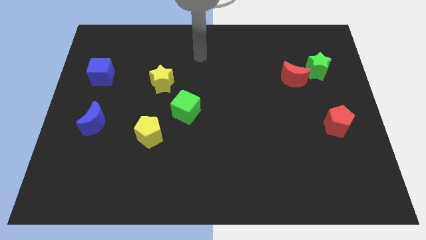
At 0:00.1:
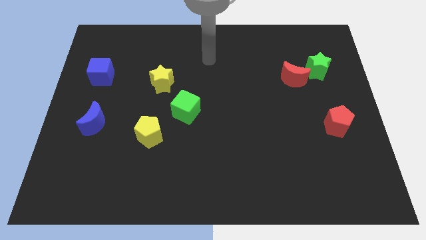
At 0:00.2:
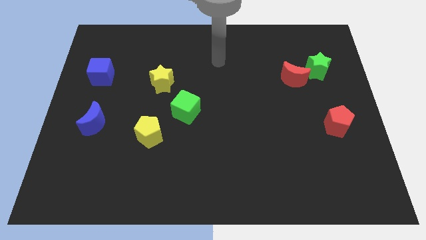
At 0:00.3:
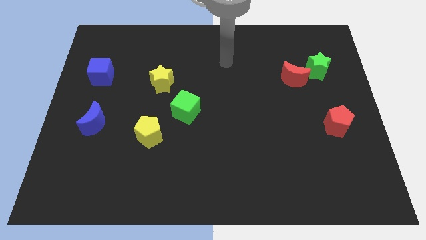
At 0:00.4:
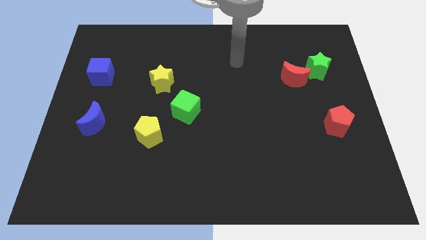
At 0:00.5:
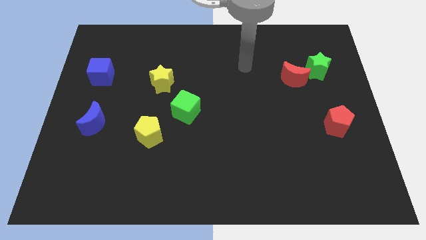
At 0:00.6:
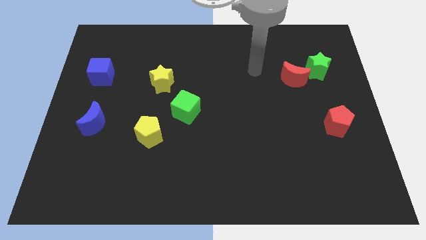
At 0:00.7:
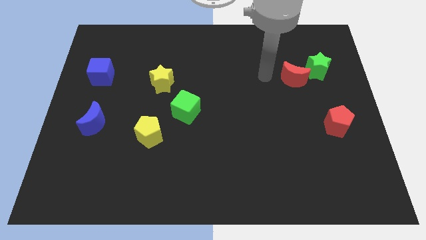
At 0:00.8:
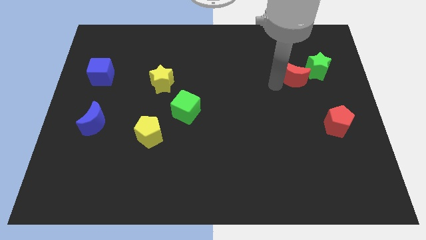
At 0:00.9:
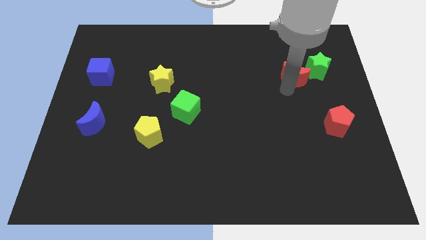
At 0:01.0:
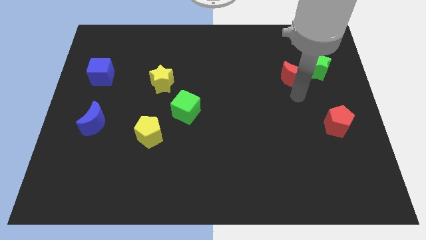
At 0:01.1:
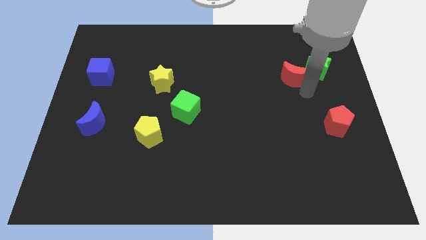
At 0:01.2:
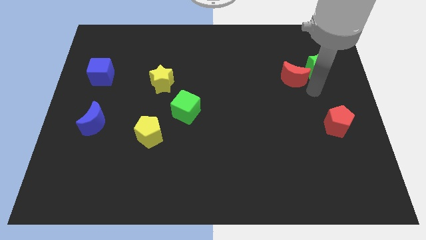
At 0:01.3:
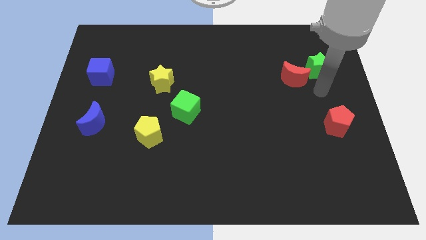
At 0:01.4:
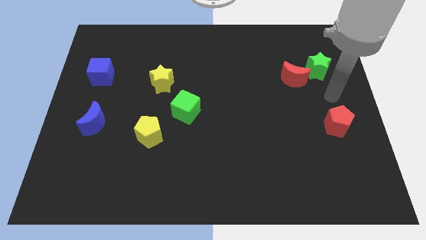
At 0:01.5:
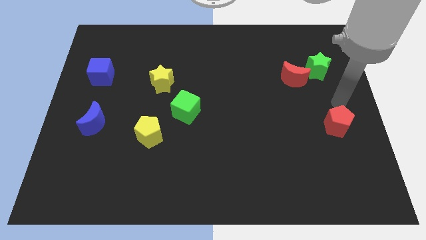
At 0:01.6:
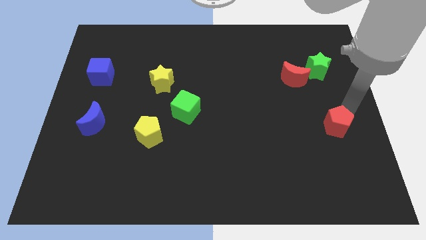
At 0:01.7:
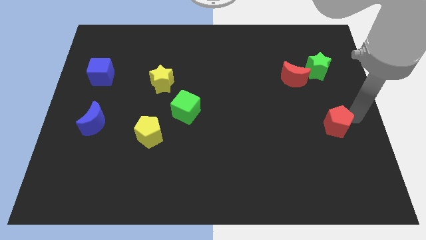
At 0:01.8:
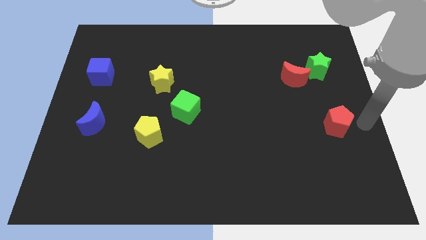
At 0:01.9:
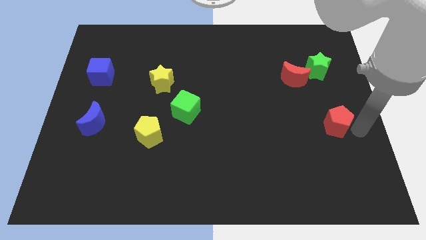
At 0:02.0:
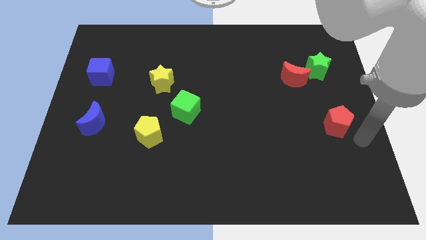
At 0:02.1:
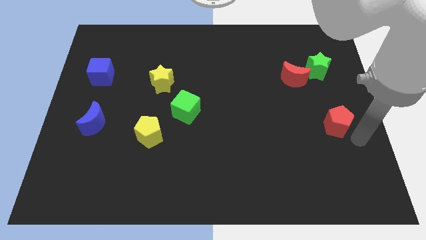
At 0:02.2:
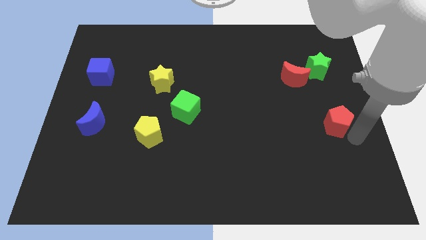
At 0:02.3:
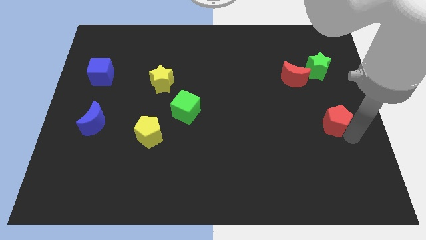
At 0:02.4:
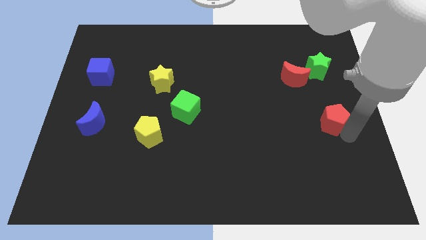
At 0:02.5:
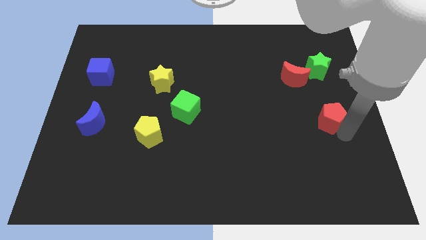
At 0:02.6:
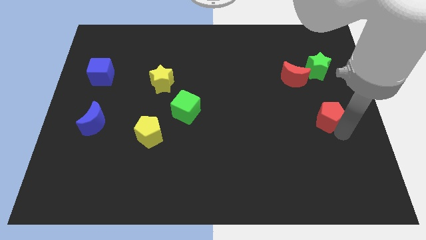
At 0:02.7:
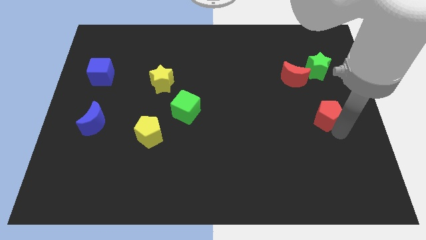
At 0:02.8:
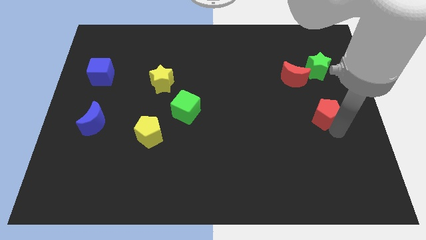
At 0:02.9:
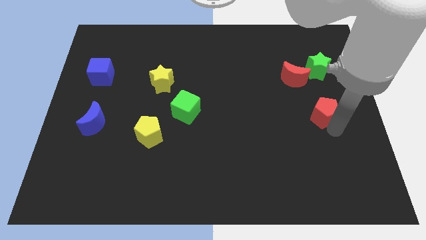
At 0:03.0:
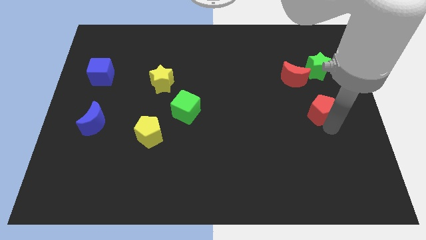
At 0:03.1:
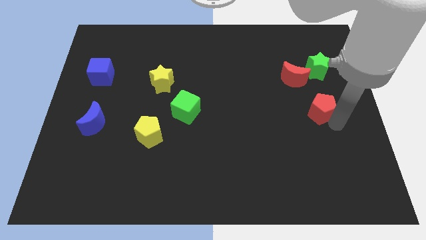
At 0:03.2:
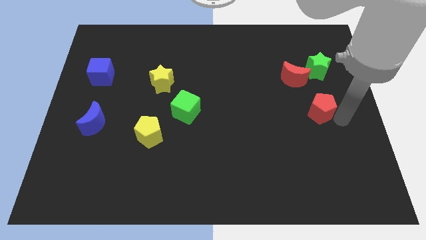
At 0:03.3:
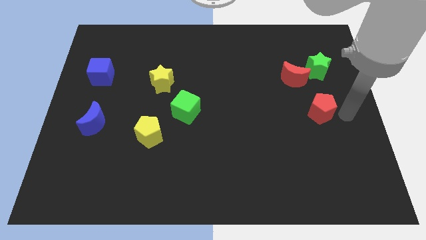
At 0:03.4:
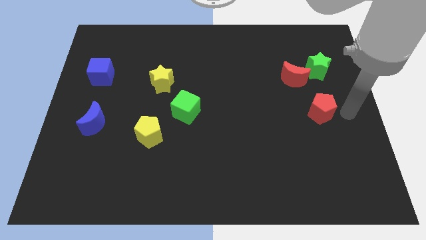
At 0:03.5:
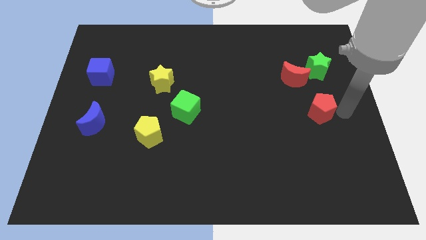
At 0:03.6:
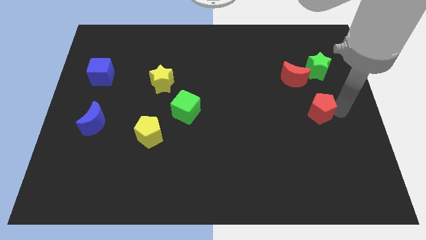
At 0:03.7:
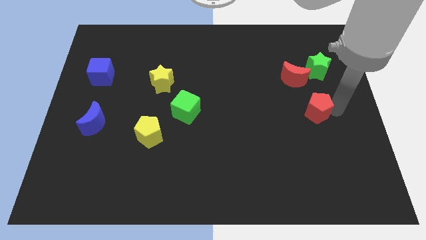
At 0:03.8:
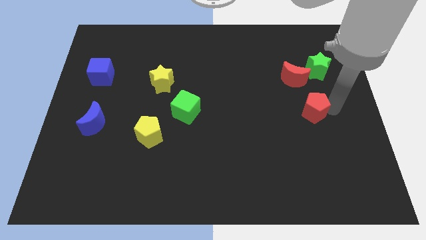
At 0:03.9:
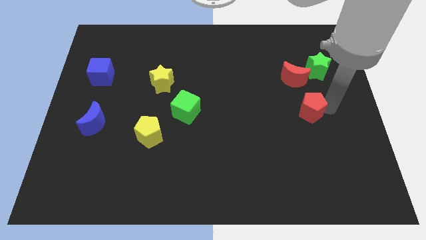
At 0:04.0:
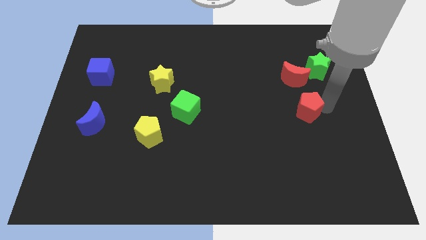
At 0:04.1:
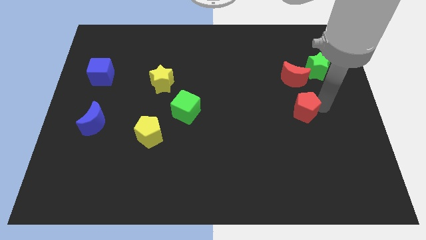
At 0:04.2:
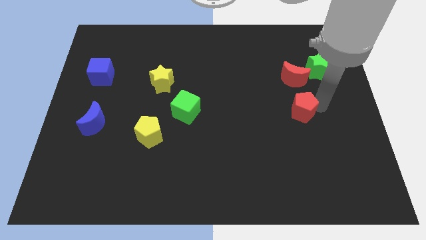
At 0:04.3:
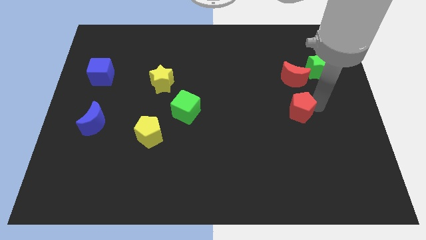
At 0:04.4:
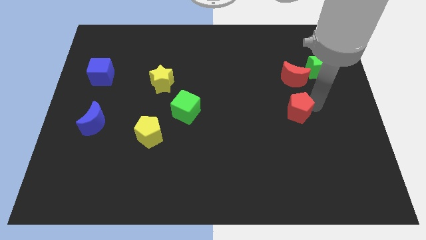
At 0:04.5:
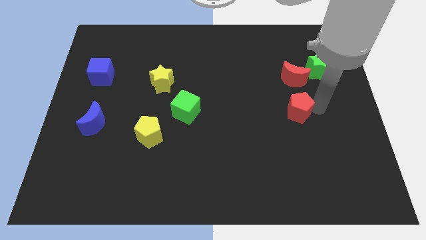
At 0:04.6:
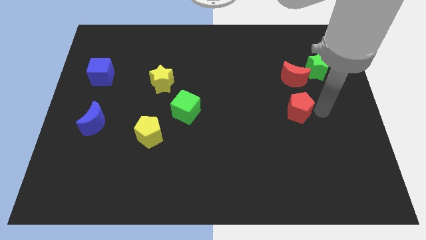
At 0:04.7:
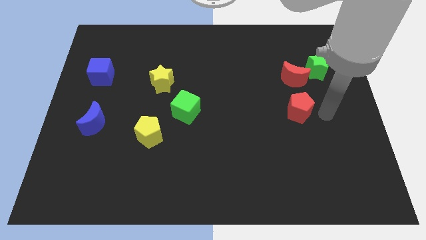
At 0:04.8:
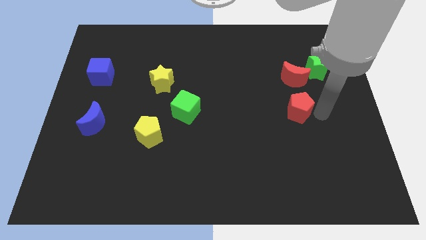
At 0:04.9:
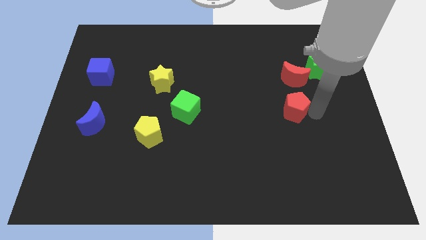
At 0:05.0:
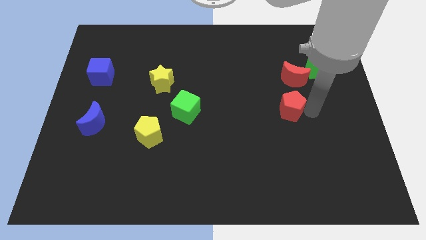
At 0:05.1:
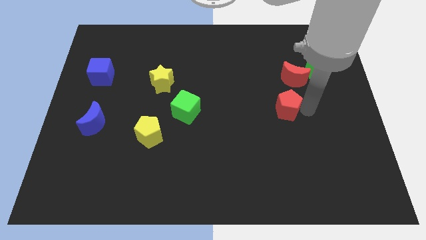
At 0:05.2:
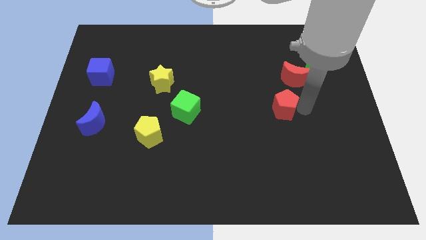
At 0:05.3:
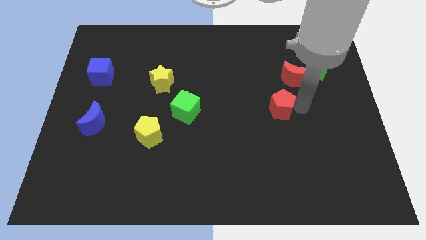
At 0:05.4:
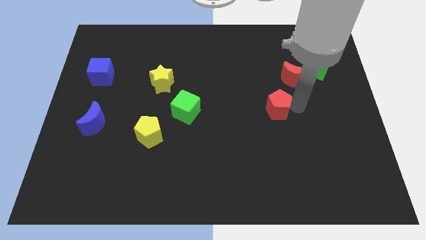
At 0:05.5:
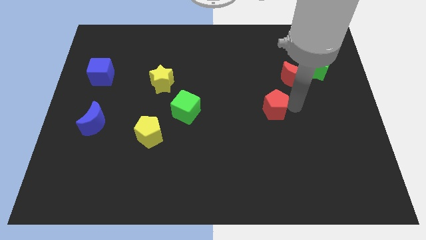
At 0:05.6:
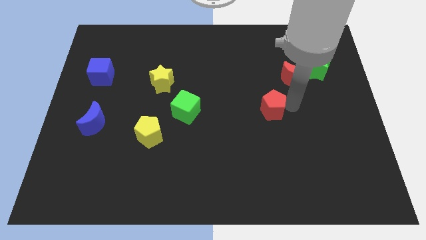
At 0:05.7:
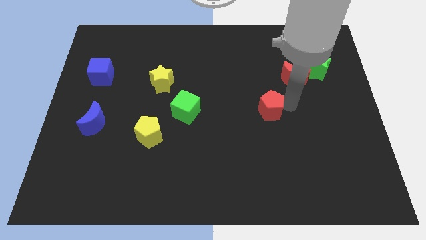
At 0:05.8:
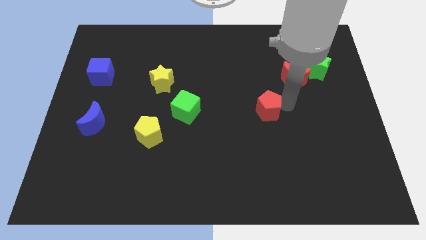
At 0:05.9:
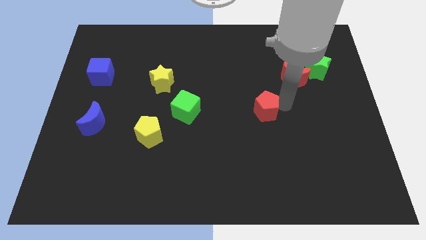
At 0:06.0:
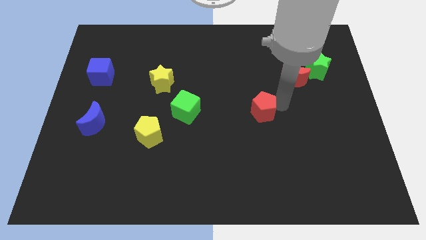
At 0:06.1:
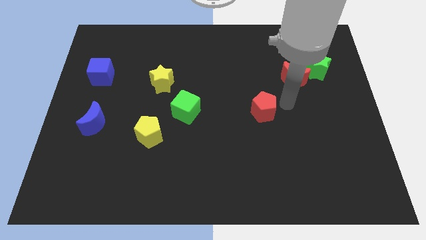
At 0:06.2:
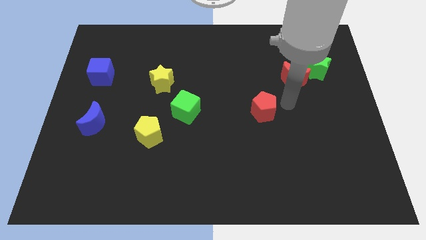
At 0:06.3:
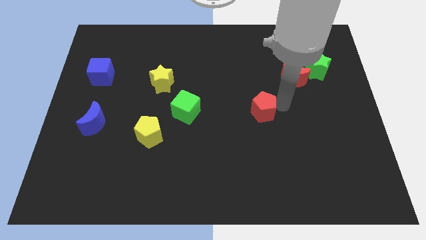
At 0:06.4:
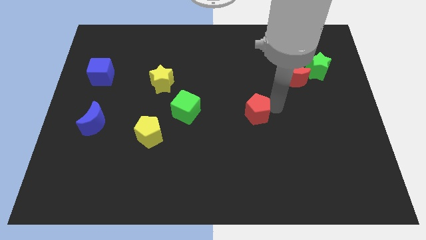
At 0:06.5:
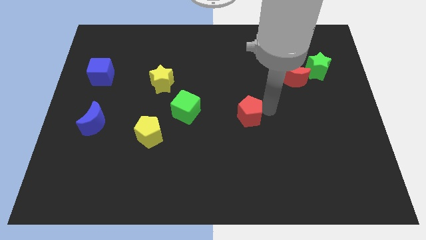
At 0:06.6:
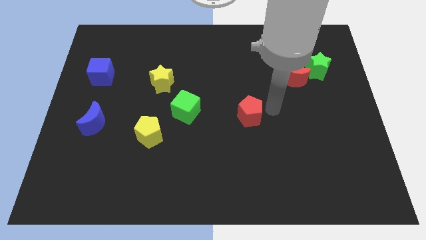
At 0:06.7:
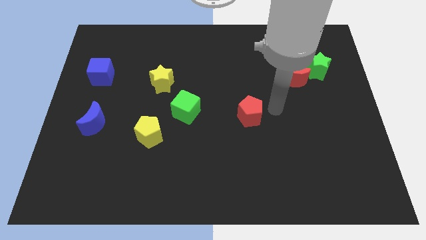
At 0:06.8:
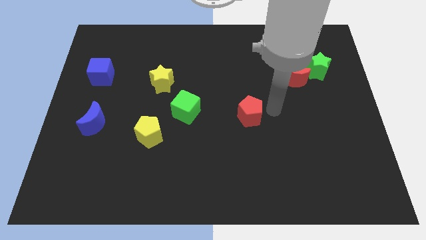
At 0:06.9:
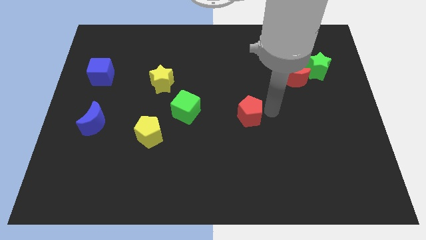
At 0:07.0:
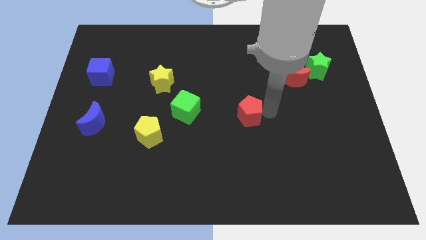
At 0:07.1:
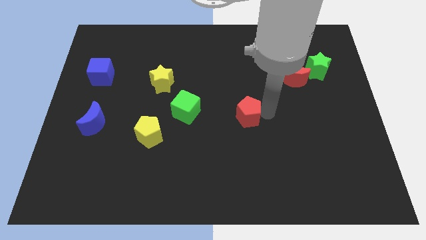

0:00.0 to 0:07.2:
slide the red pentagon left

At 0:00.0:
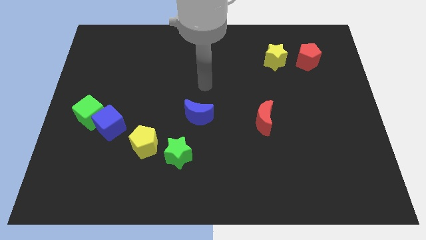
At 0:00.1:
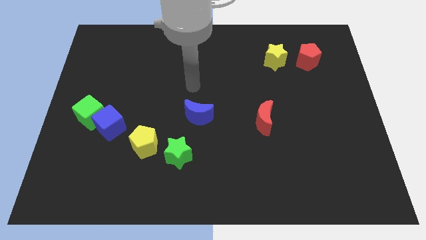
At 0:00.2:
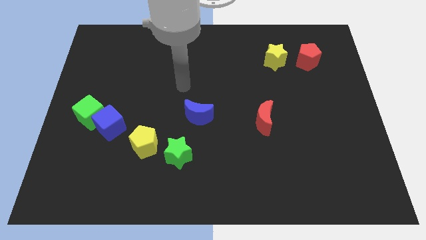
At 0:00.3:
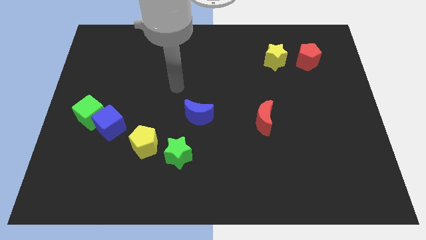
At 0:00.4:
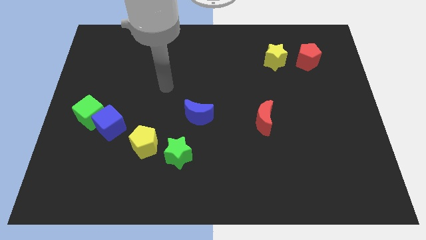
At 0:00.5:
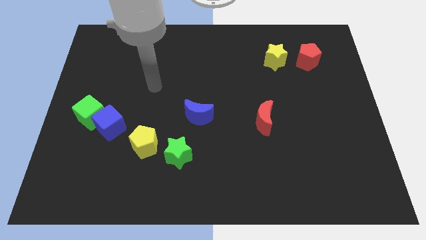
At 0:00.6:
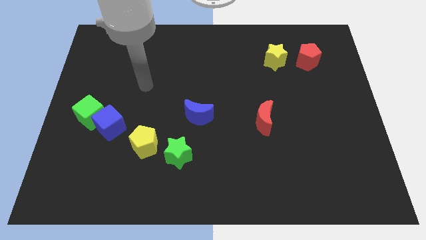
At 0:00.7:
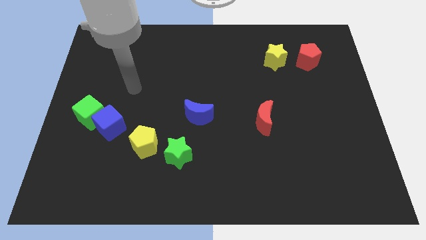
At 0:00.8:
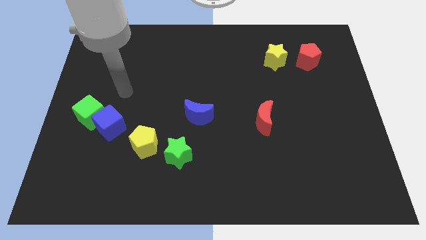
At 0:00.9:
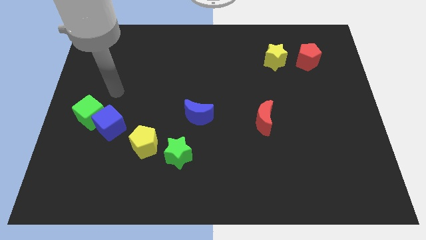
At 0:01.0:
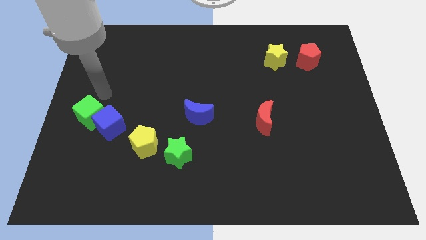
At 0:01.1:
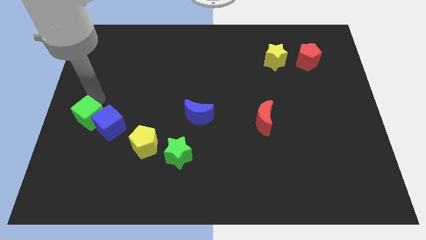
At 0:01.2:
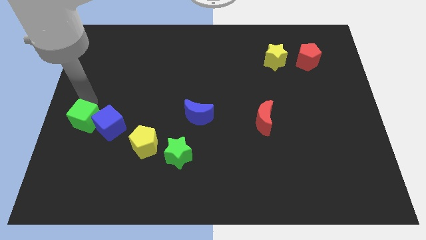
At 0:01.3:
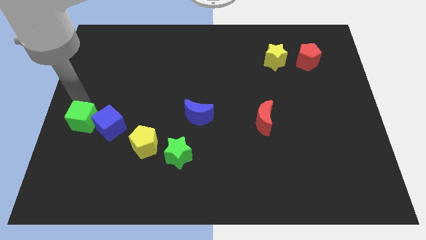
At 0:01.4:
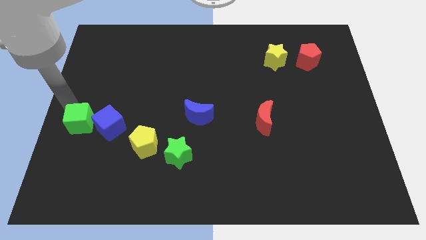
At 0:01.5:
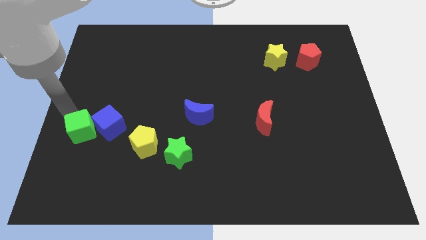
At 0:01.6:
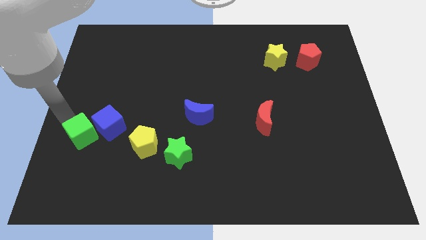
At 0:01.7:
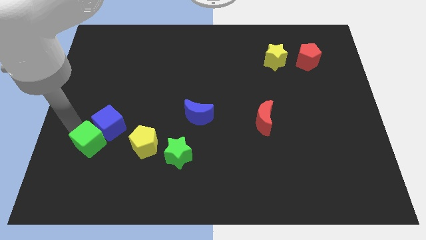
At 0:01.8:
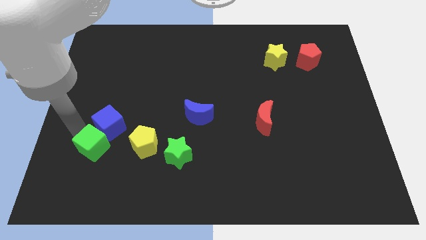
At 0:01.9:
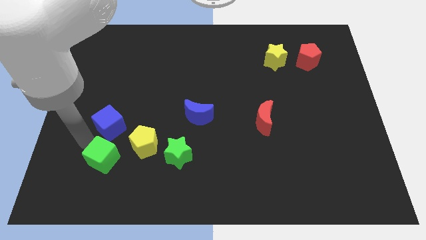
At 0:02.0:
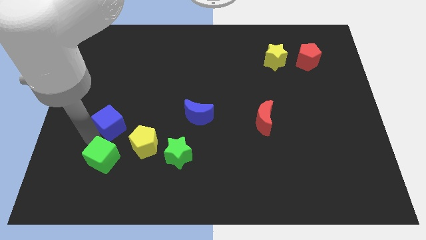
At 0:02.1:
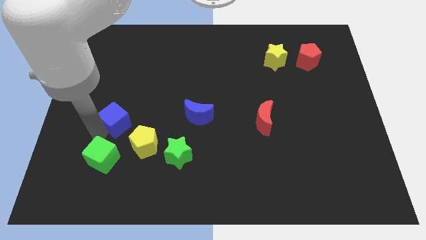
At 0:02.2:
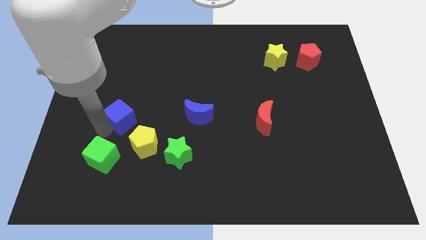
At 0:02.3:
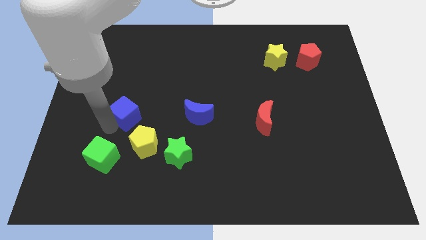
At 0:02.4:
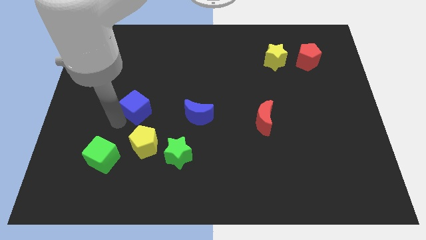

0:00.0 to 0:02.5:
push the blue cube a bit upwards and then to the right
